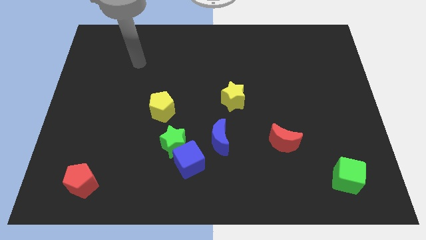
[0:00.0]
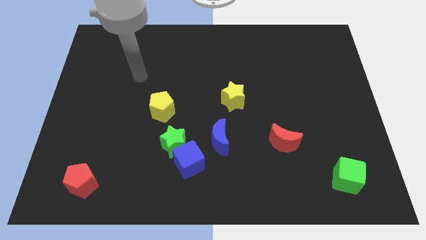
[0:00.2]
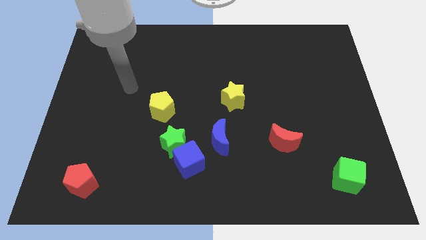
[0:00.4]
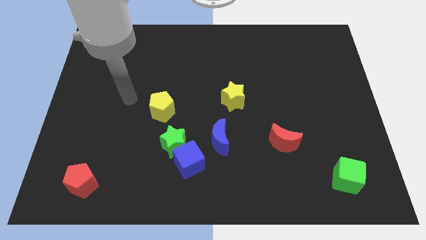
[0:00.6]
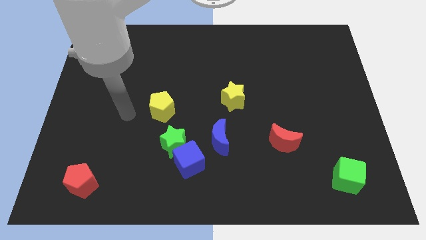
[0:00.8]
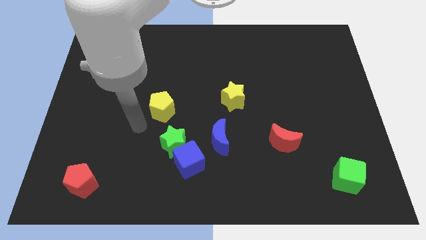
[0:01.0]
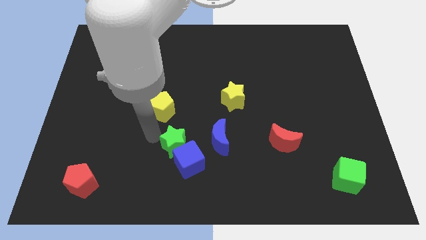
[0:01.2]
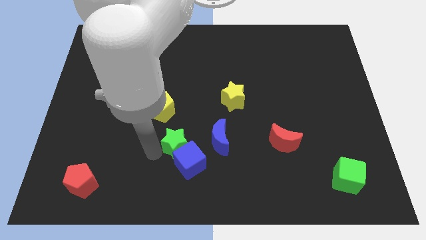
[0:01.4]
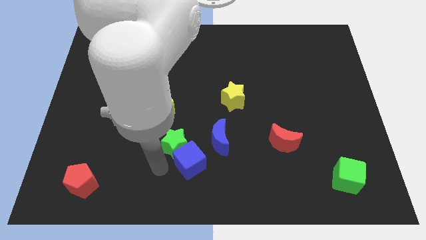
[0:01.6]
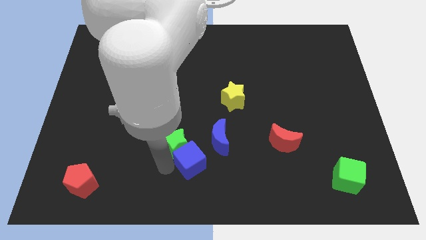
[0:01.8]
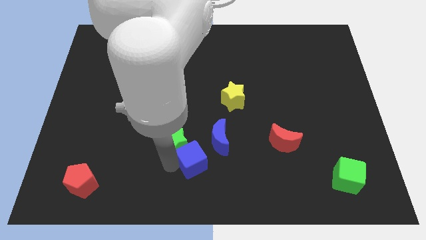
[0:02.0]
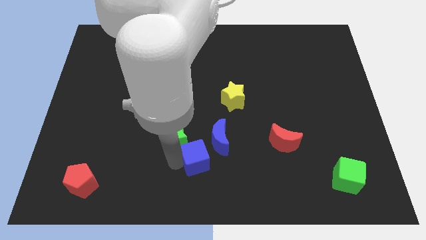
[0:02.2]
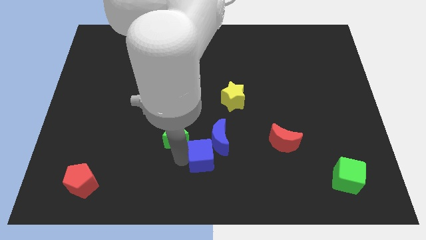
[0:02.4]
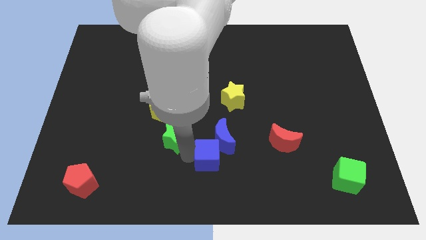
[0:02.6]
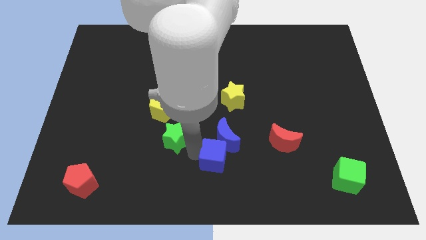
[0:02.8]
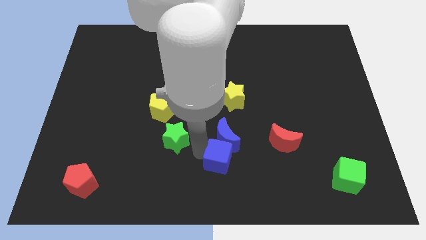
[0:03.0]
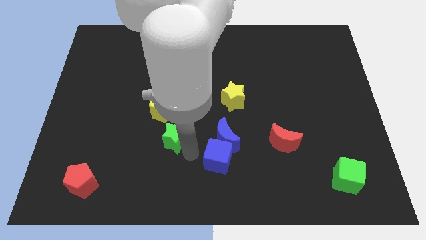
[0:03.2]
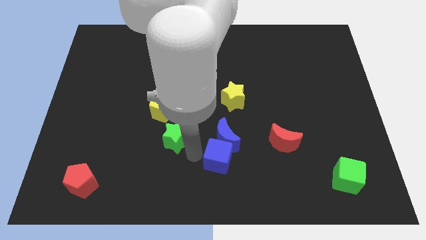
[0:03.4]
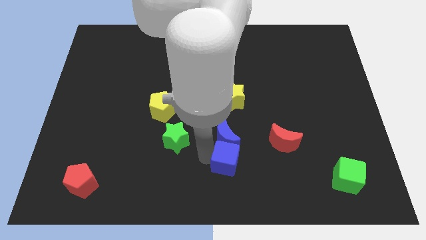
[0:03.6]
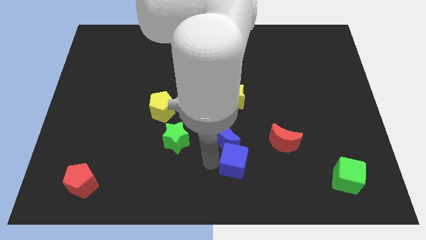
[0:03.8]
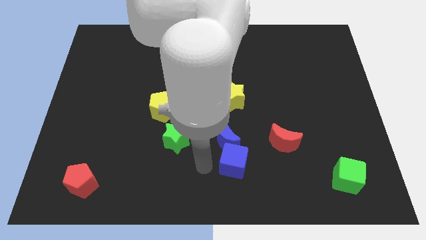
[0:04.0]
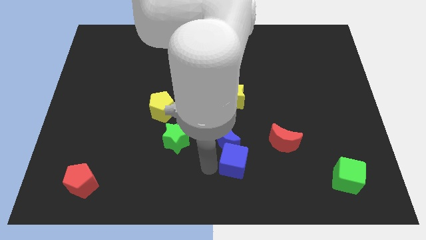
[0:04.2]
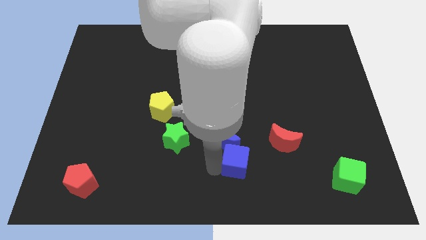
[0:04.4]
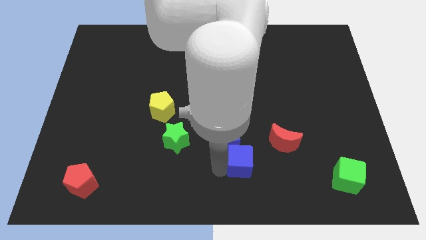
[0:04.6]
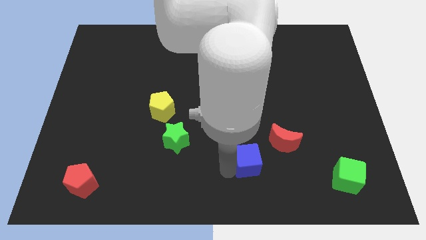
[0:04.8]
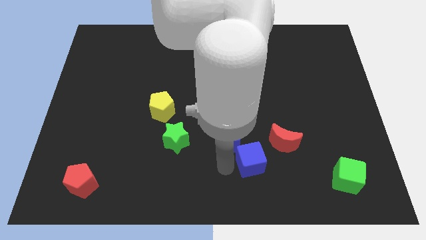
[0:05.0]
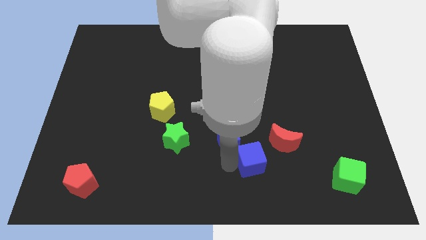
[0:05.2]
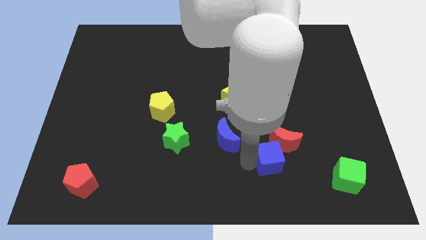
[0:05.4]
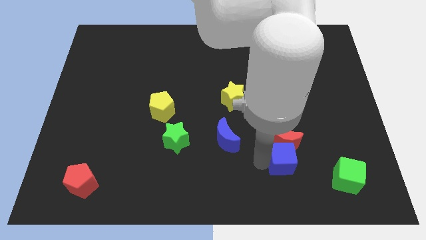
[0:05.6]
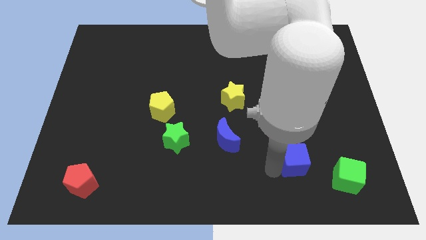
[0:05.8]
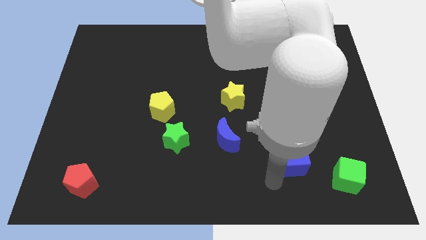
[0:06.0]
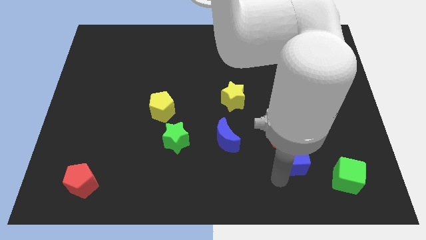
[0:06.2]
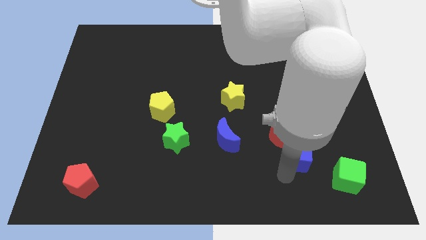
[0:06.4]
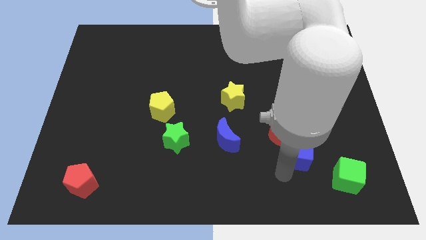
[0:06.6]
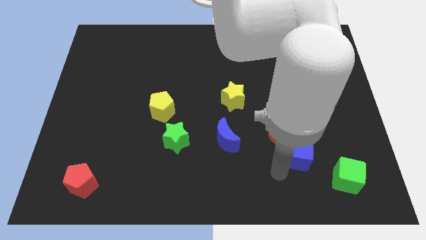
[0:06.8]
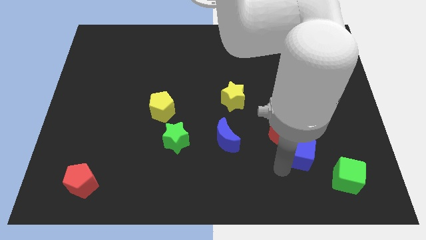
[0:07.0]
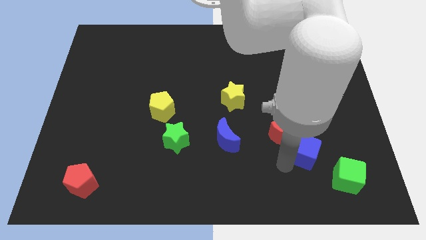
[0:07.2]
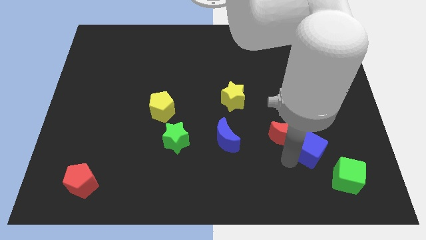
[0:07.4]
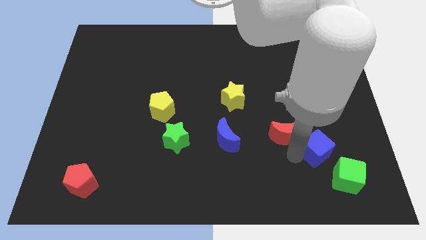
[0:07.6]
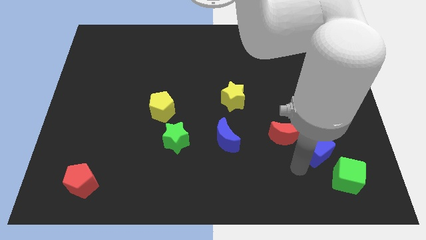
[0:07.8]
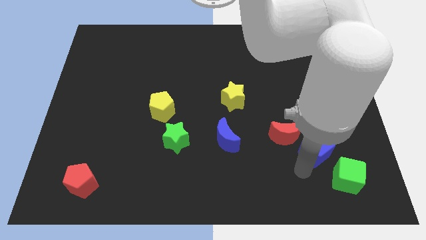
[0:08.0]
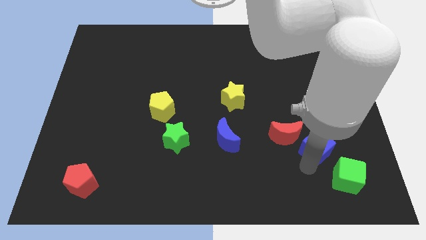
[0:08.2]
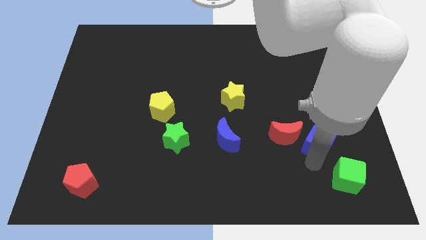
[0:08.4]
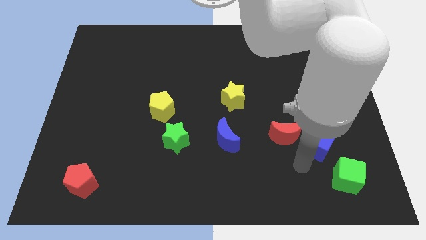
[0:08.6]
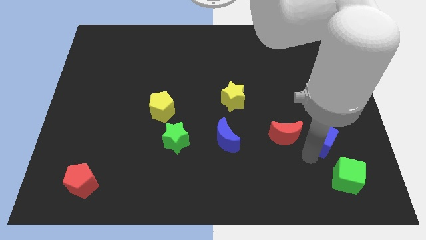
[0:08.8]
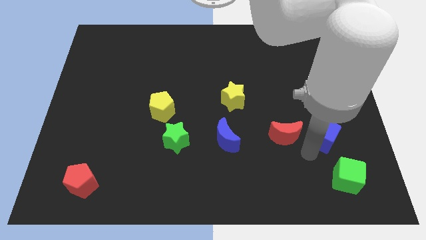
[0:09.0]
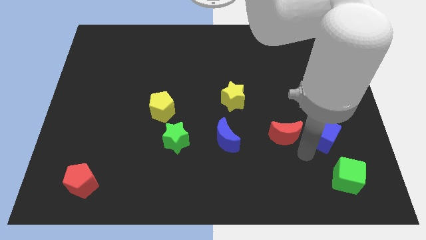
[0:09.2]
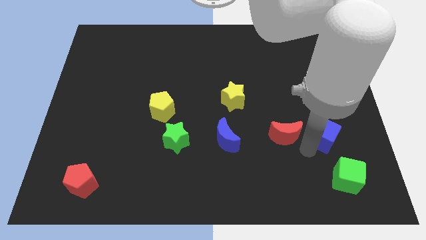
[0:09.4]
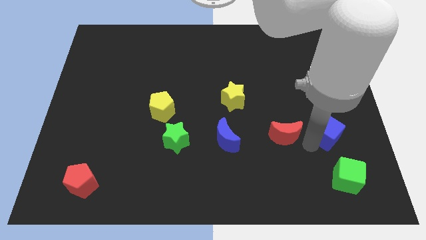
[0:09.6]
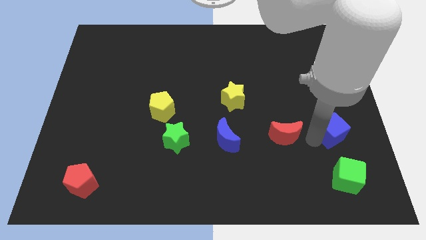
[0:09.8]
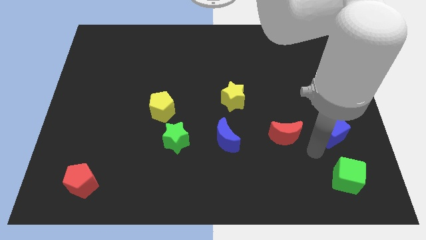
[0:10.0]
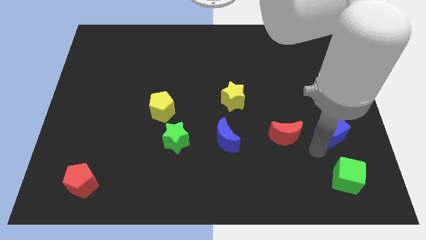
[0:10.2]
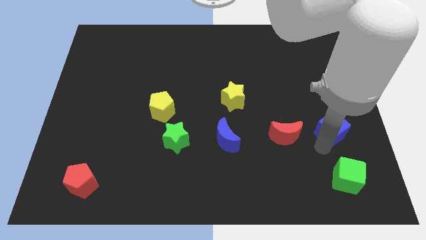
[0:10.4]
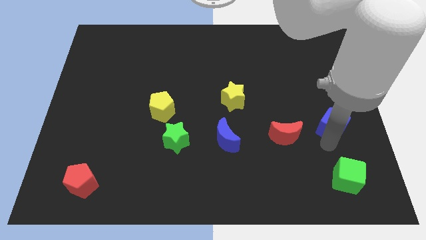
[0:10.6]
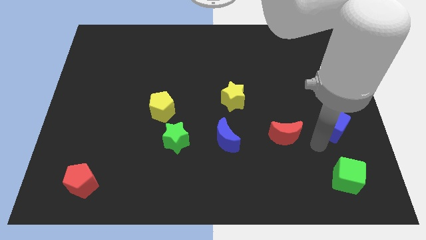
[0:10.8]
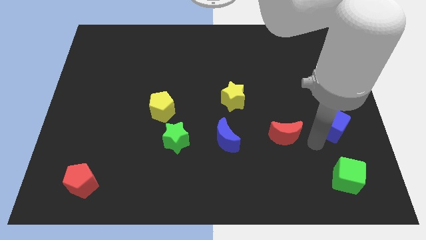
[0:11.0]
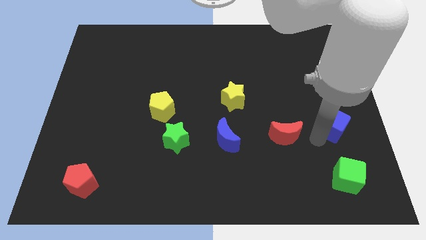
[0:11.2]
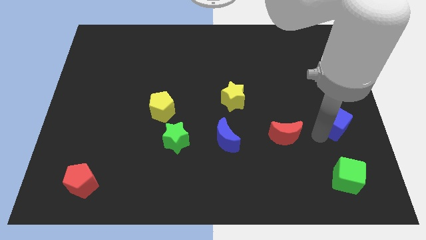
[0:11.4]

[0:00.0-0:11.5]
put the blue cube to the right side

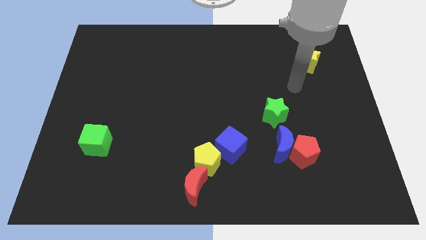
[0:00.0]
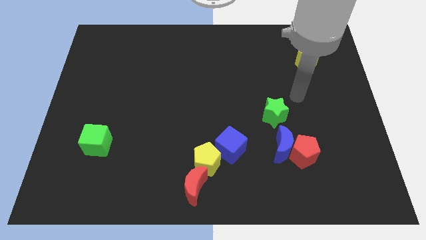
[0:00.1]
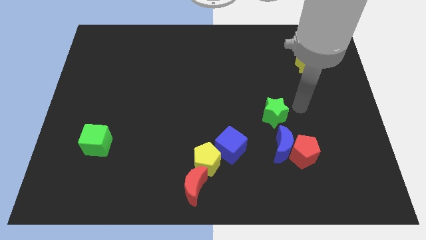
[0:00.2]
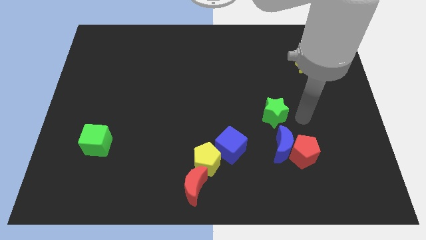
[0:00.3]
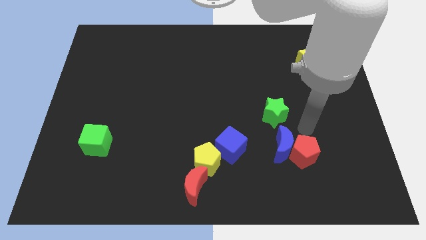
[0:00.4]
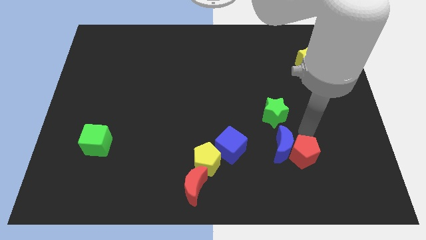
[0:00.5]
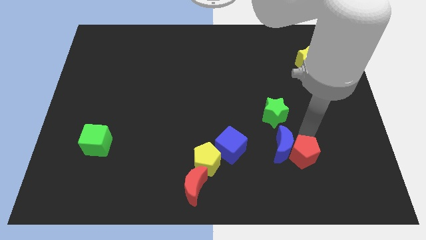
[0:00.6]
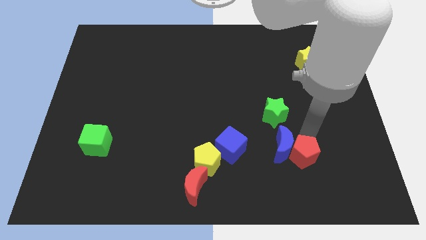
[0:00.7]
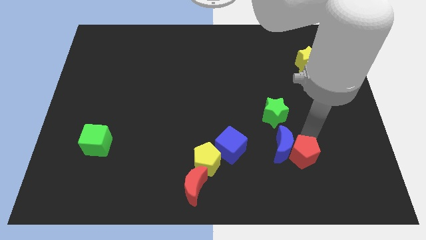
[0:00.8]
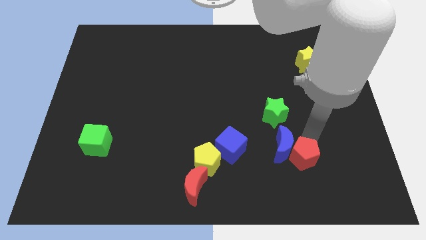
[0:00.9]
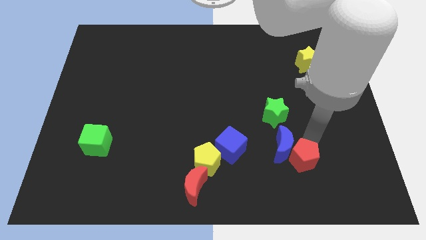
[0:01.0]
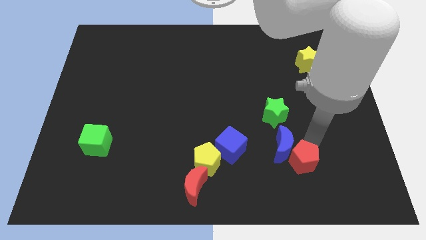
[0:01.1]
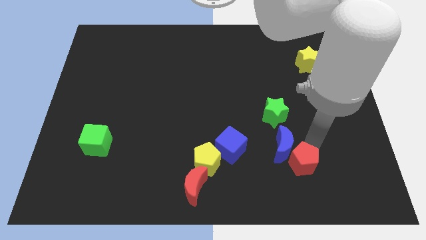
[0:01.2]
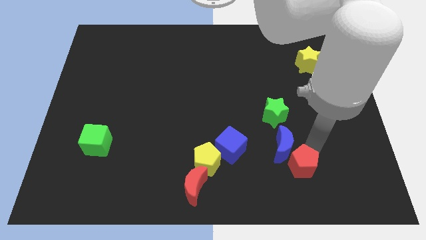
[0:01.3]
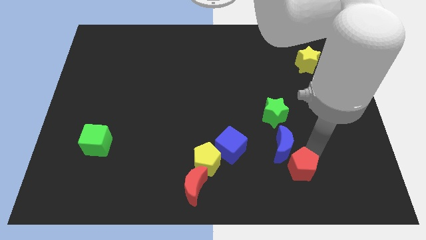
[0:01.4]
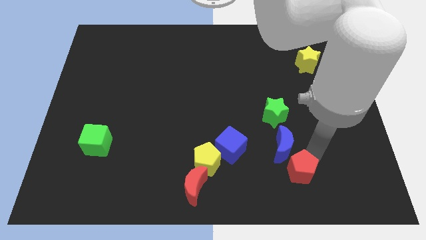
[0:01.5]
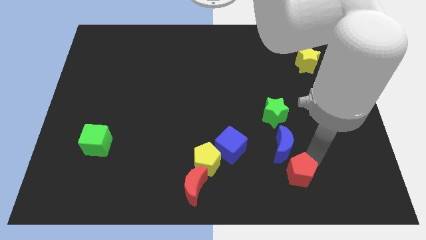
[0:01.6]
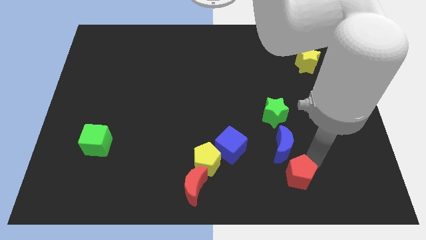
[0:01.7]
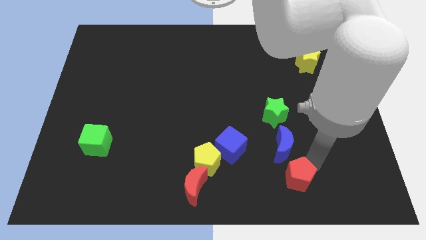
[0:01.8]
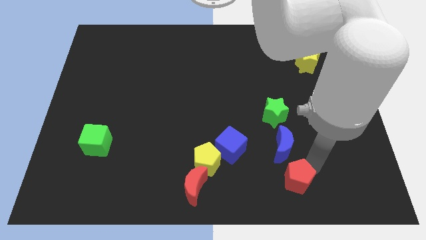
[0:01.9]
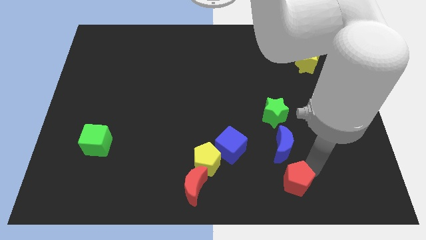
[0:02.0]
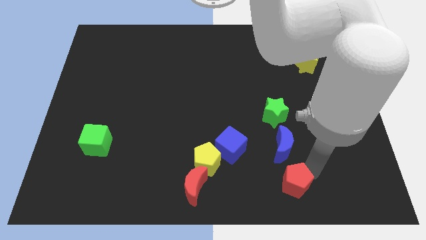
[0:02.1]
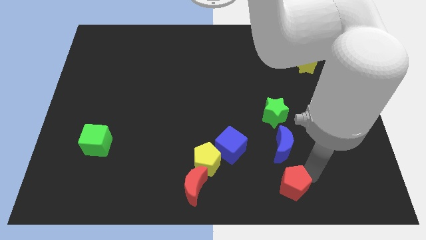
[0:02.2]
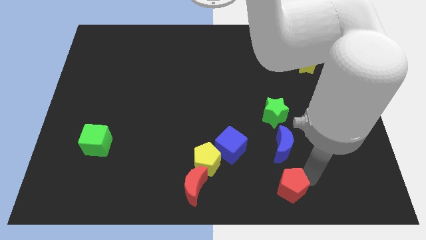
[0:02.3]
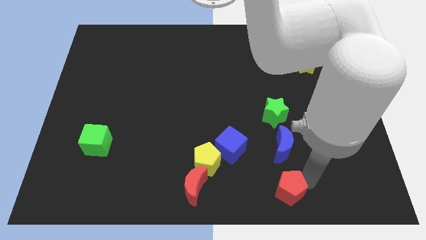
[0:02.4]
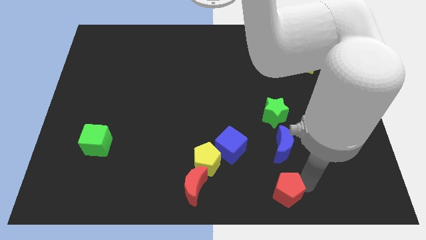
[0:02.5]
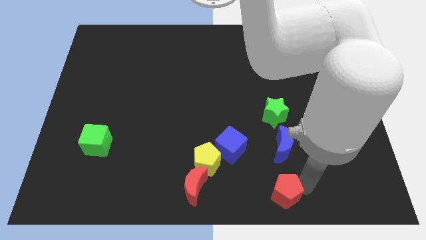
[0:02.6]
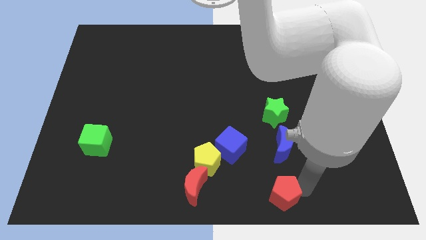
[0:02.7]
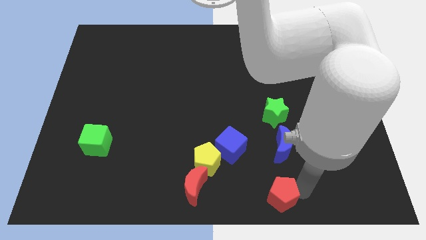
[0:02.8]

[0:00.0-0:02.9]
move the red pentagon to the bottom side
